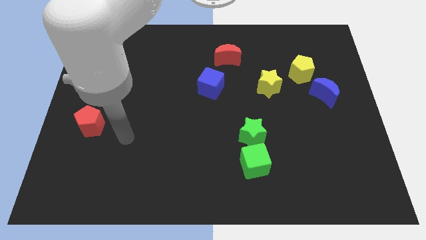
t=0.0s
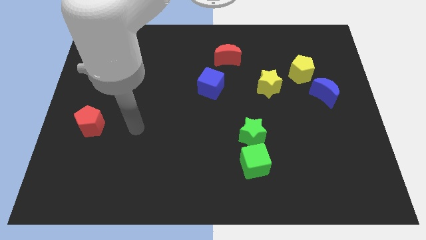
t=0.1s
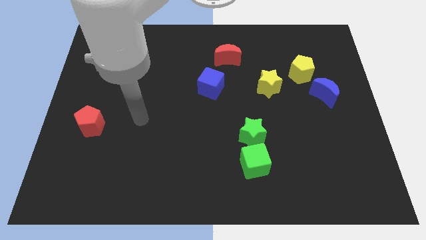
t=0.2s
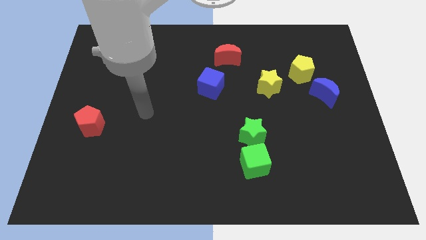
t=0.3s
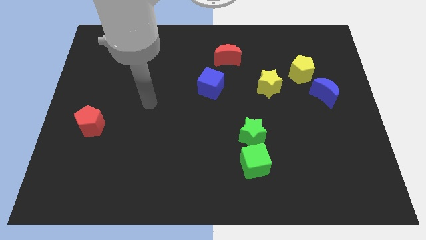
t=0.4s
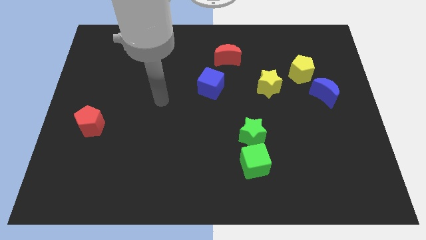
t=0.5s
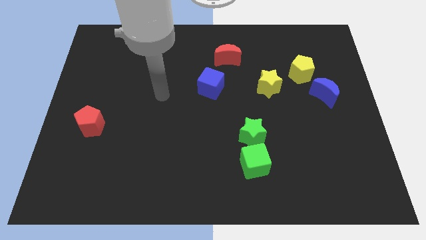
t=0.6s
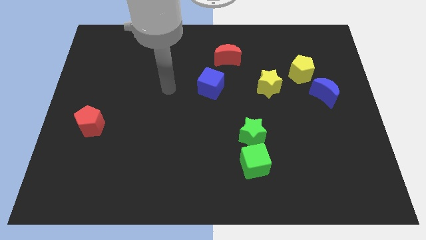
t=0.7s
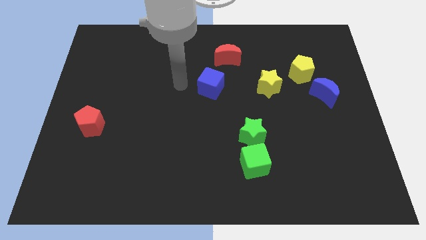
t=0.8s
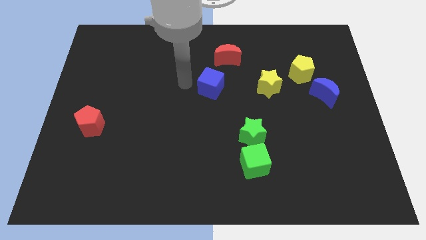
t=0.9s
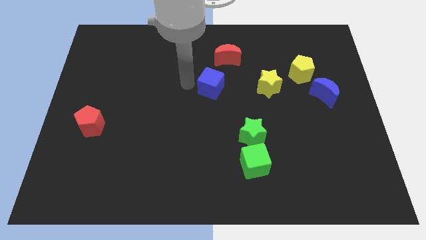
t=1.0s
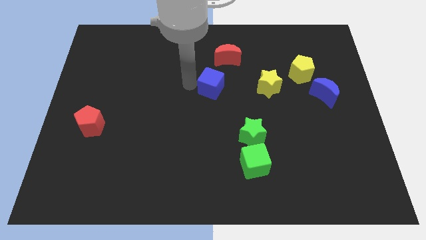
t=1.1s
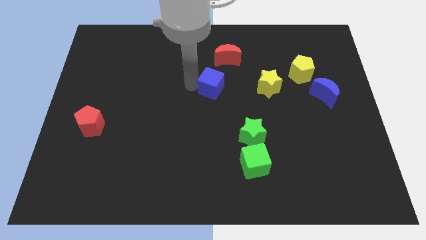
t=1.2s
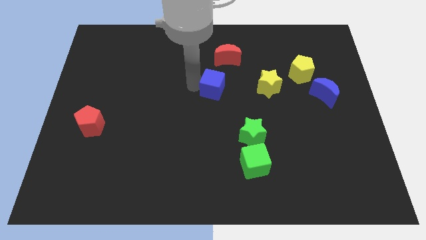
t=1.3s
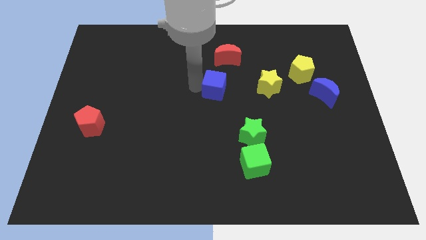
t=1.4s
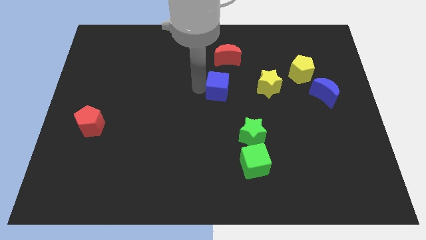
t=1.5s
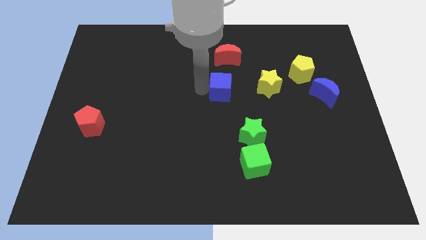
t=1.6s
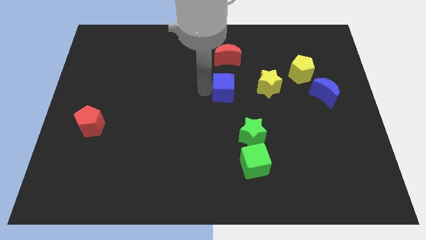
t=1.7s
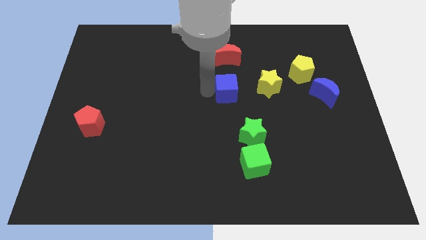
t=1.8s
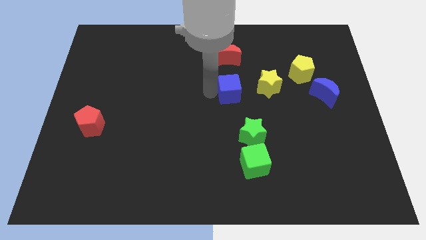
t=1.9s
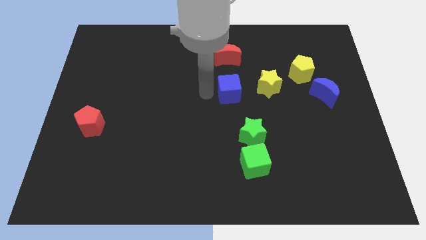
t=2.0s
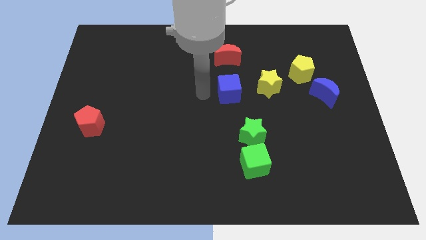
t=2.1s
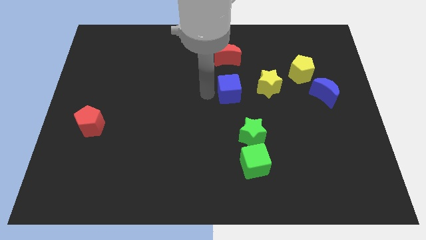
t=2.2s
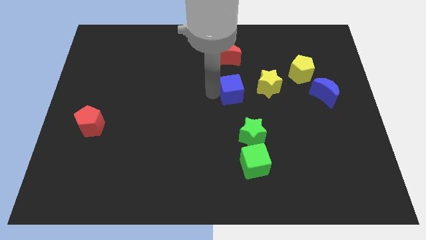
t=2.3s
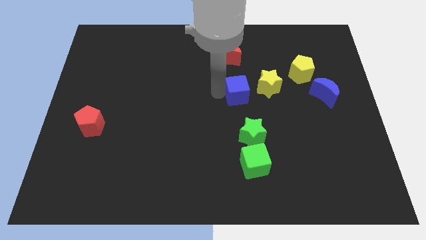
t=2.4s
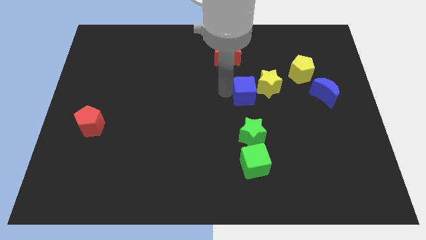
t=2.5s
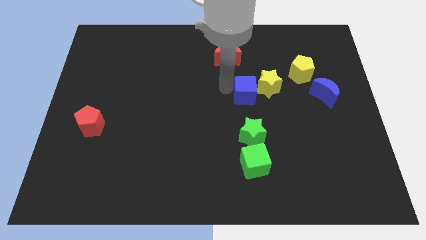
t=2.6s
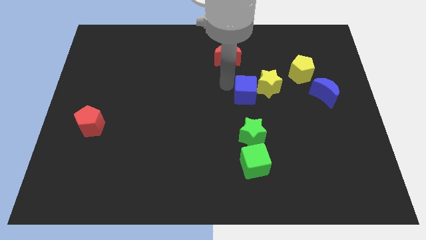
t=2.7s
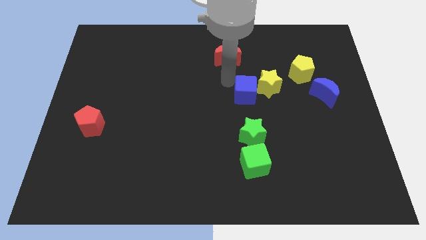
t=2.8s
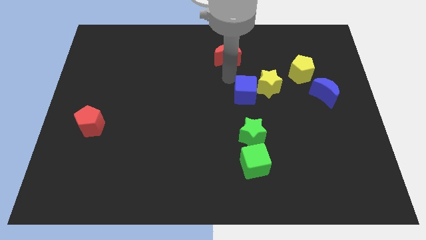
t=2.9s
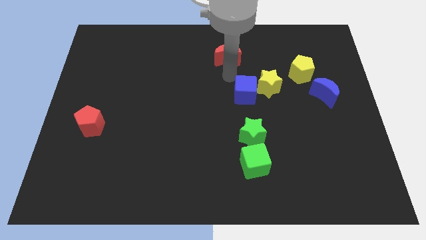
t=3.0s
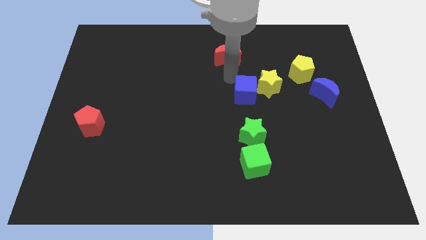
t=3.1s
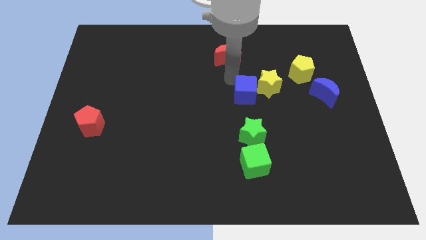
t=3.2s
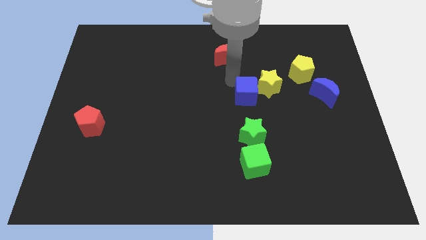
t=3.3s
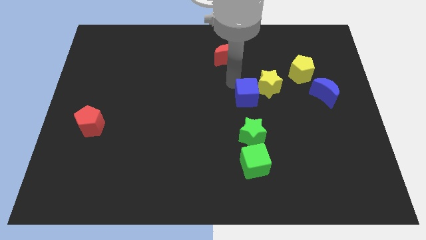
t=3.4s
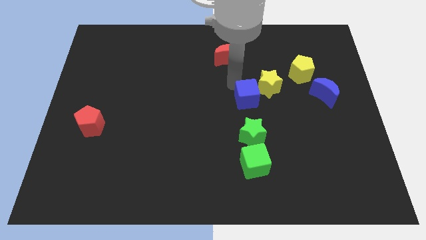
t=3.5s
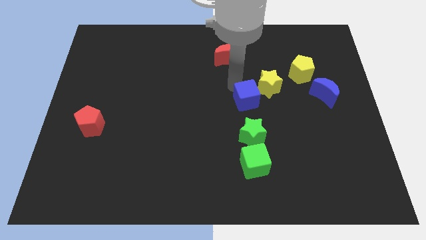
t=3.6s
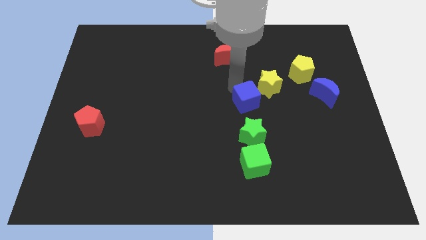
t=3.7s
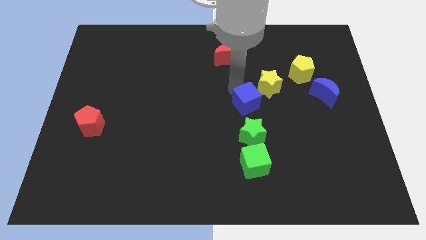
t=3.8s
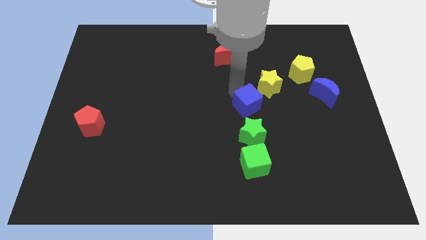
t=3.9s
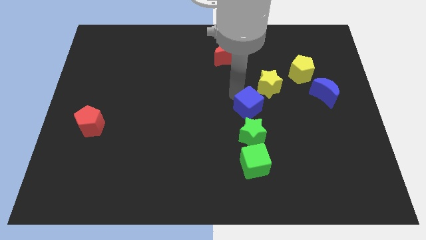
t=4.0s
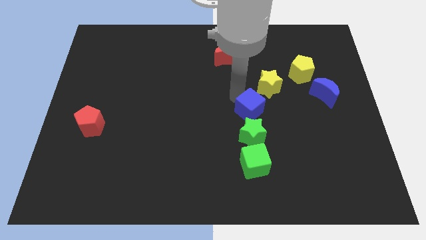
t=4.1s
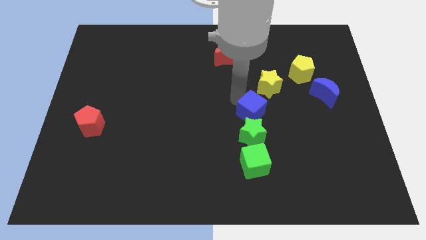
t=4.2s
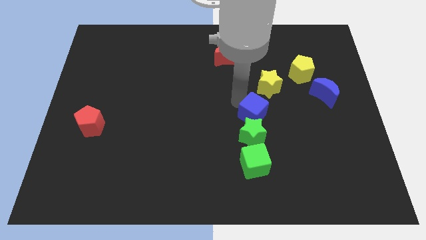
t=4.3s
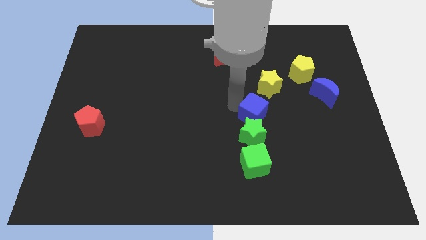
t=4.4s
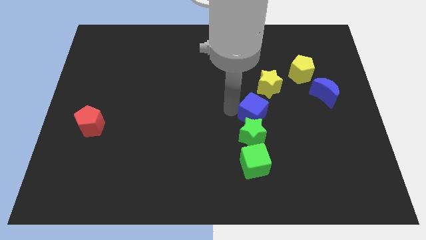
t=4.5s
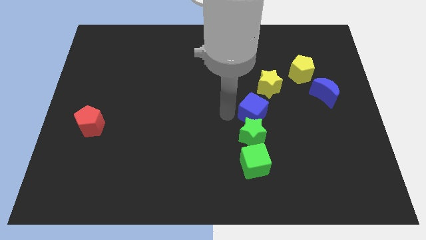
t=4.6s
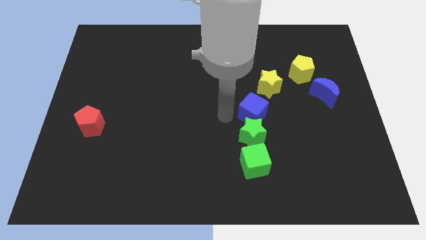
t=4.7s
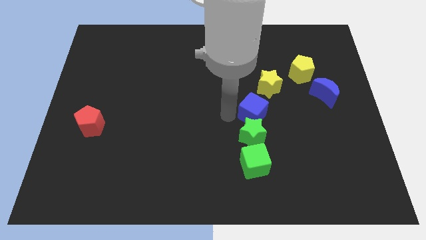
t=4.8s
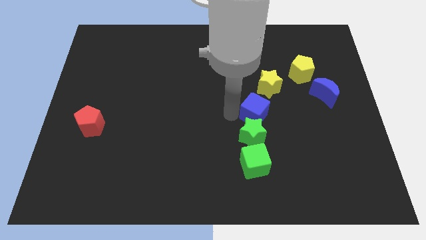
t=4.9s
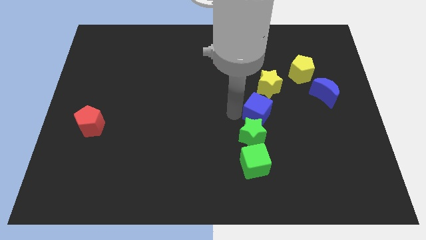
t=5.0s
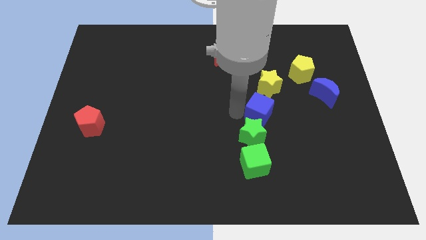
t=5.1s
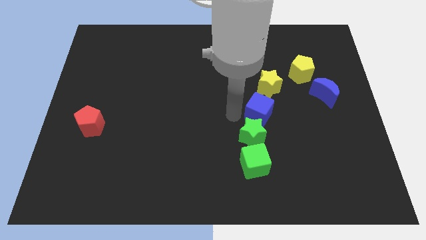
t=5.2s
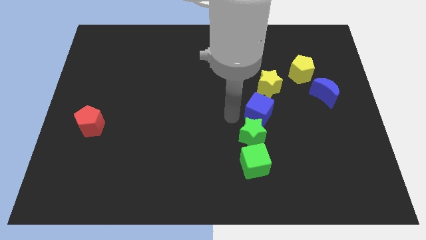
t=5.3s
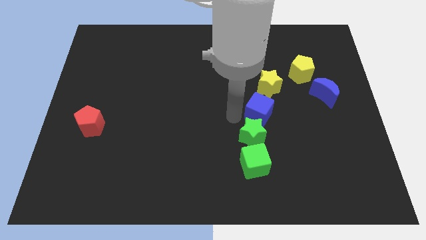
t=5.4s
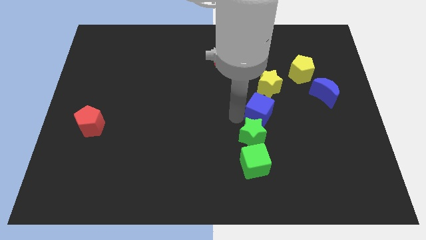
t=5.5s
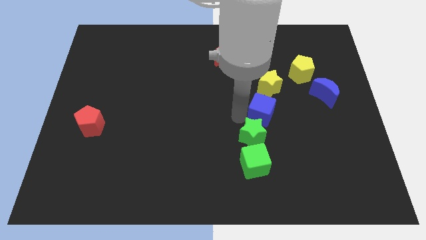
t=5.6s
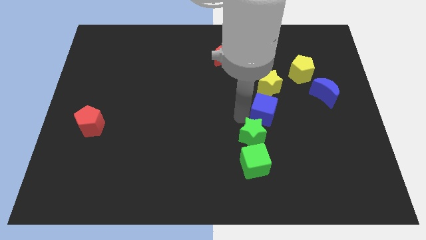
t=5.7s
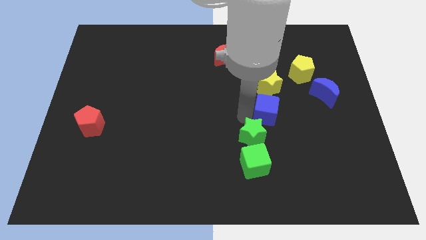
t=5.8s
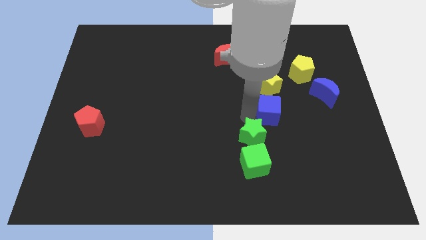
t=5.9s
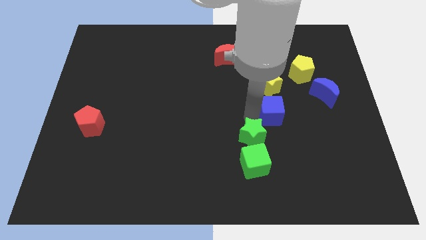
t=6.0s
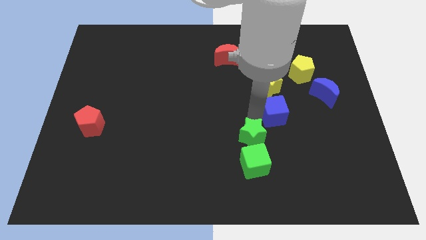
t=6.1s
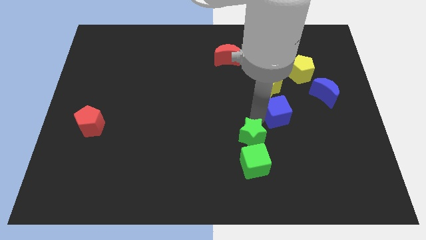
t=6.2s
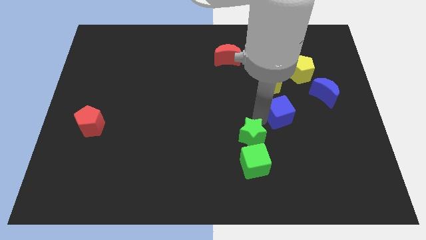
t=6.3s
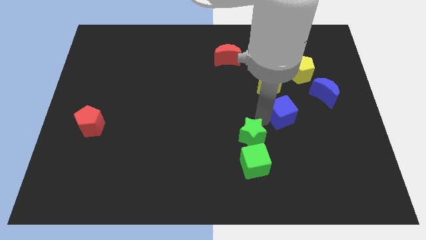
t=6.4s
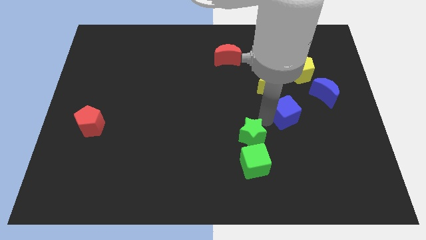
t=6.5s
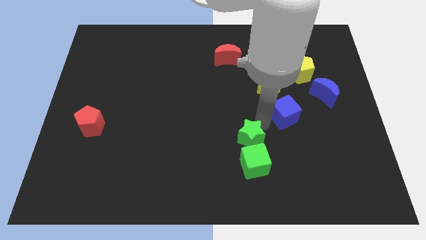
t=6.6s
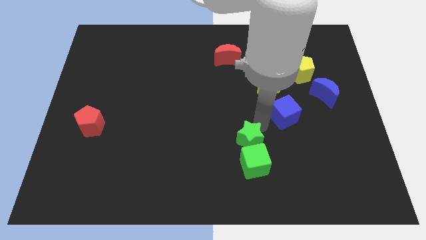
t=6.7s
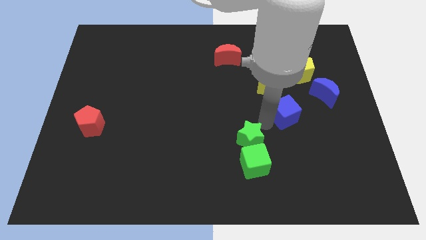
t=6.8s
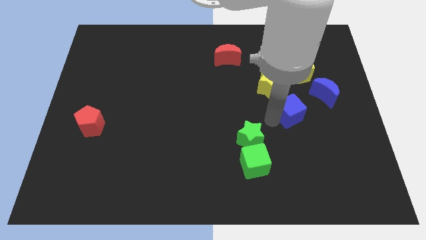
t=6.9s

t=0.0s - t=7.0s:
slide the blue cube to the bottom of the yellow pentagon

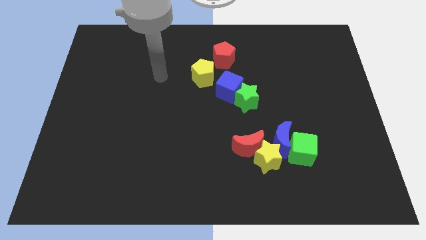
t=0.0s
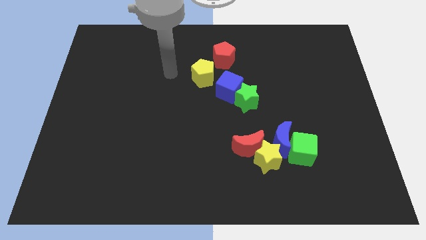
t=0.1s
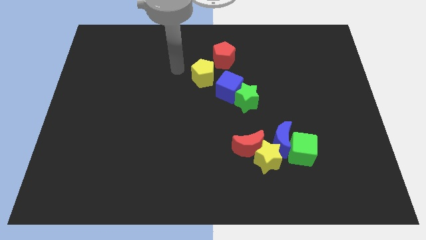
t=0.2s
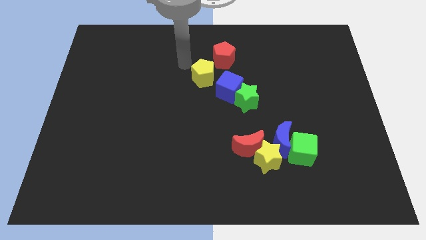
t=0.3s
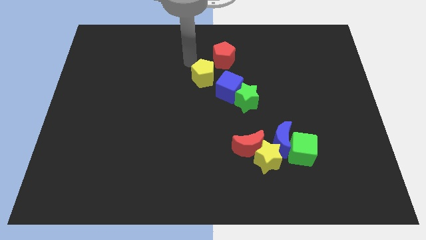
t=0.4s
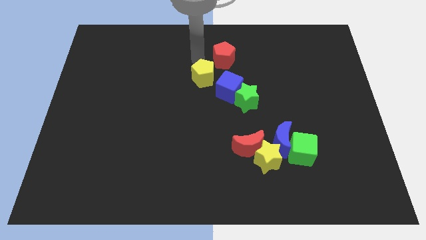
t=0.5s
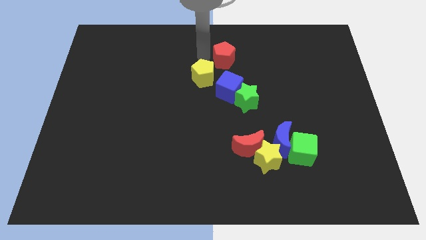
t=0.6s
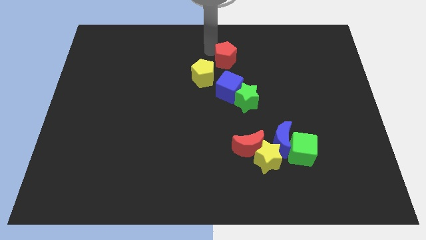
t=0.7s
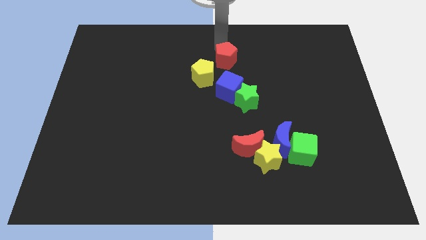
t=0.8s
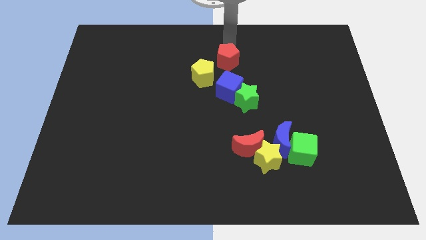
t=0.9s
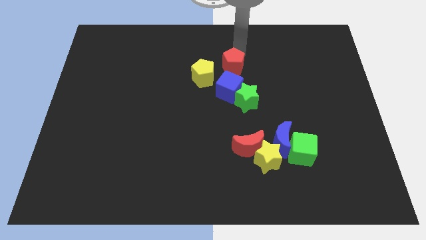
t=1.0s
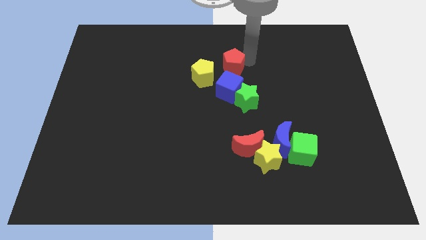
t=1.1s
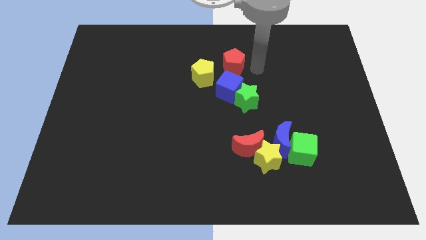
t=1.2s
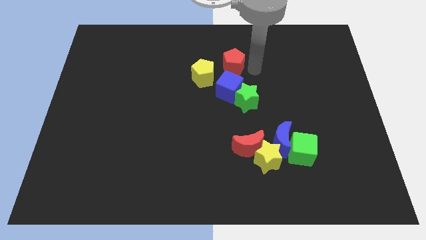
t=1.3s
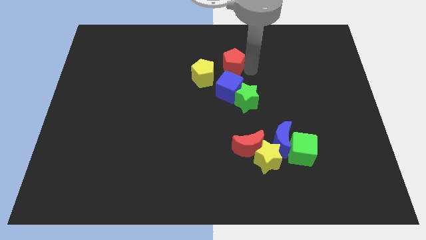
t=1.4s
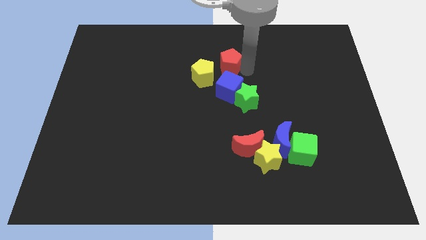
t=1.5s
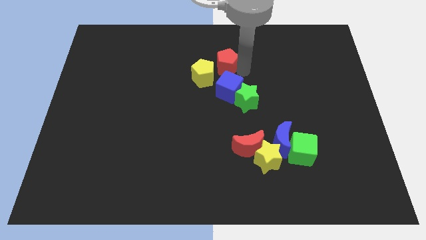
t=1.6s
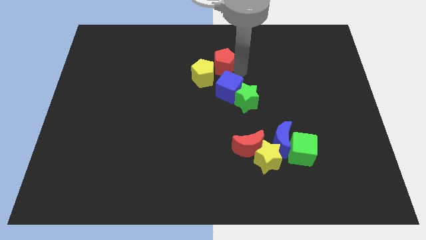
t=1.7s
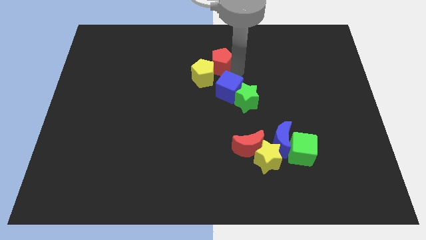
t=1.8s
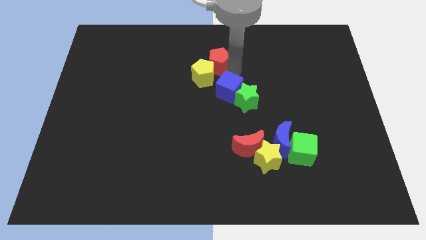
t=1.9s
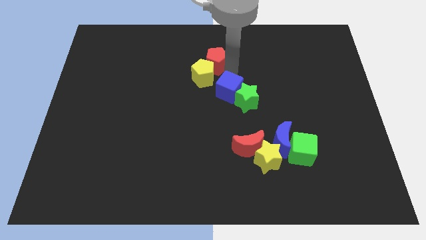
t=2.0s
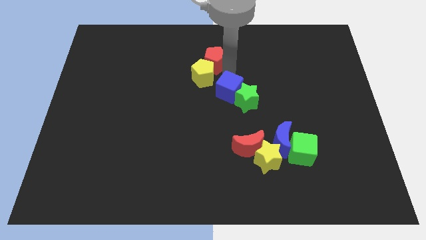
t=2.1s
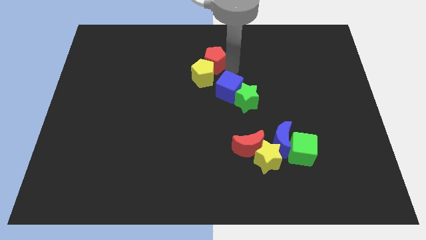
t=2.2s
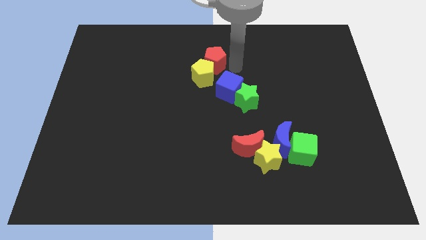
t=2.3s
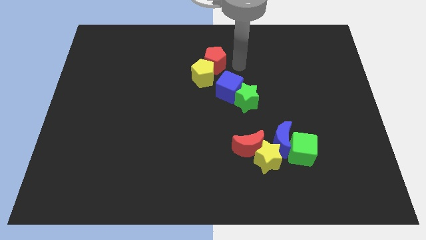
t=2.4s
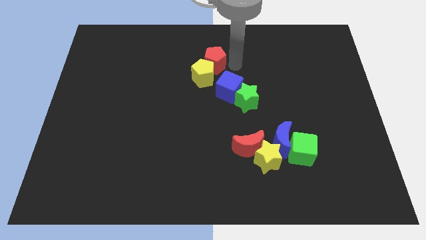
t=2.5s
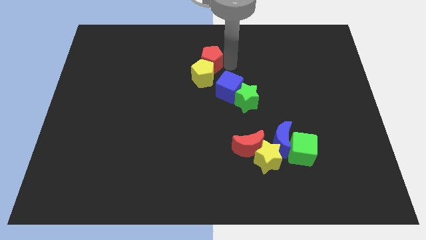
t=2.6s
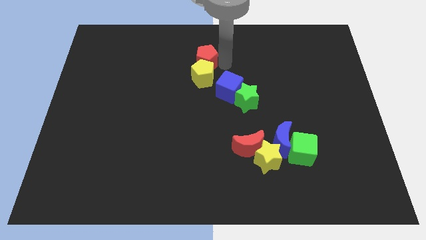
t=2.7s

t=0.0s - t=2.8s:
slide the red pentagon to the top left of the yellow pentagon
